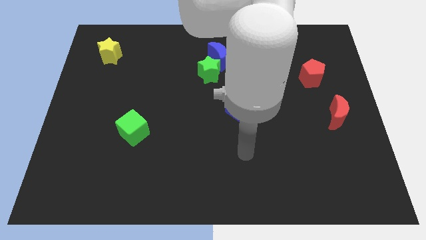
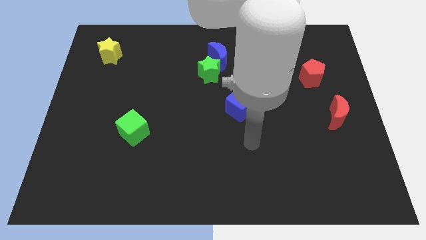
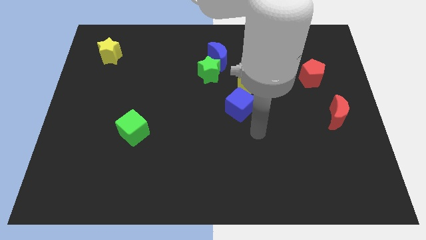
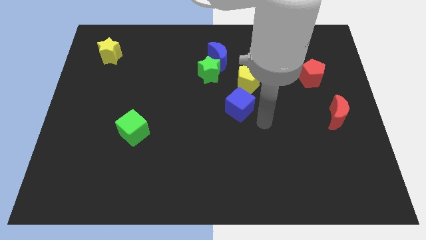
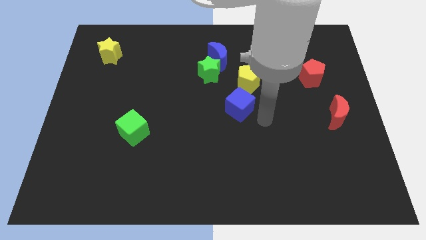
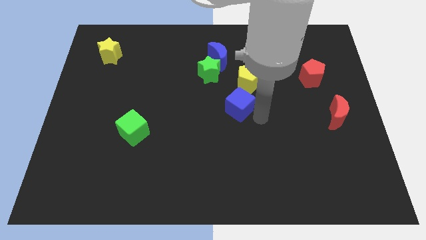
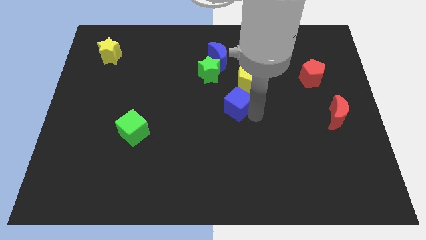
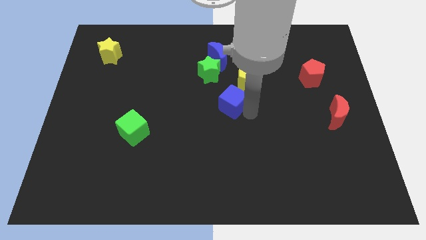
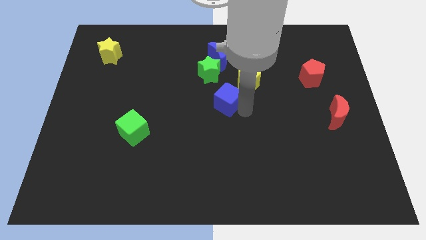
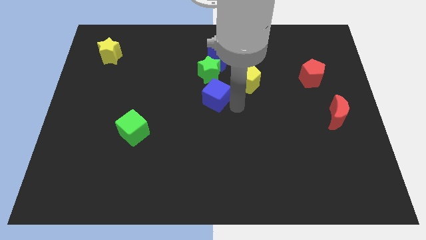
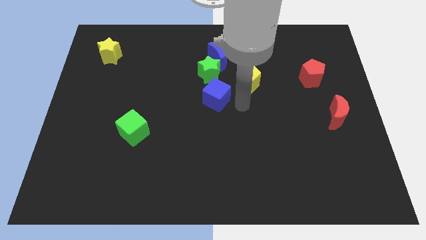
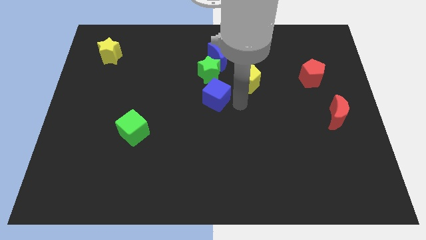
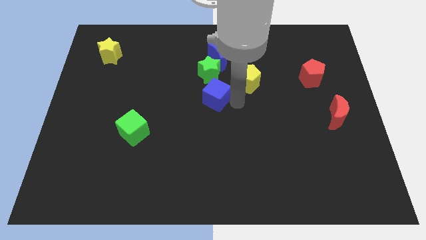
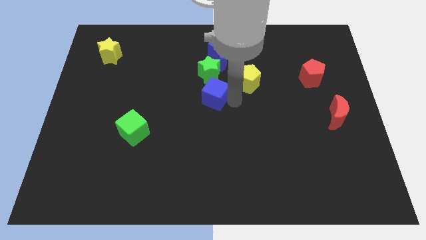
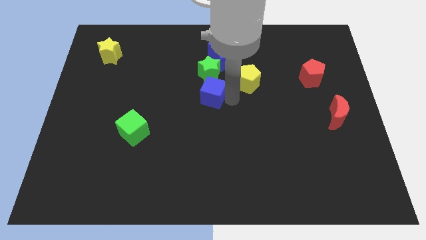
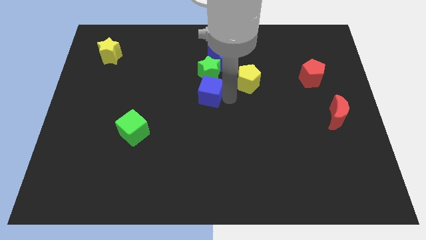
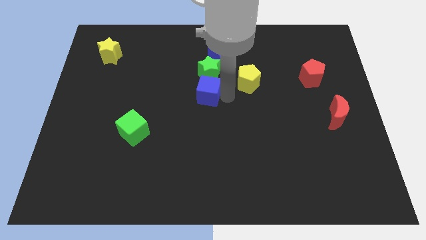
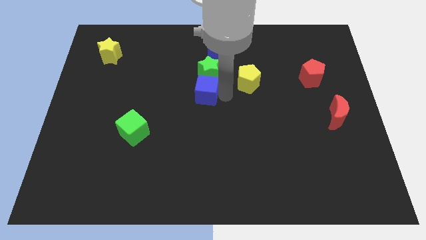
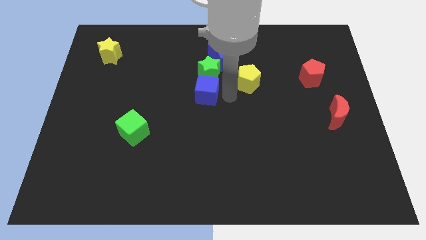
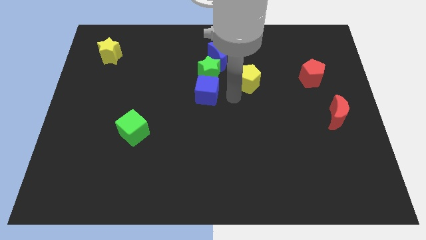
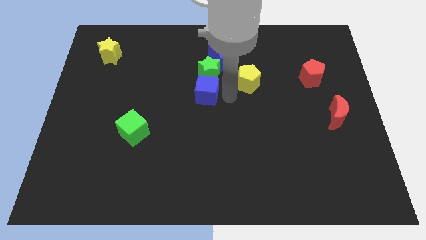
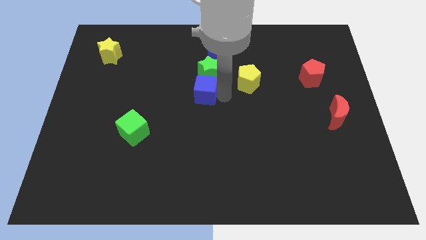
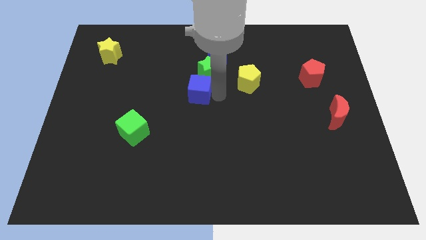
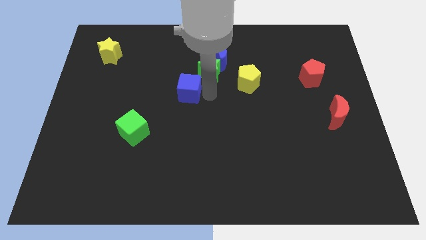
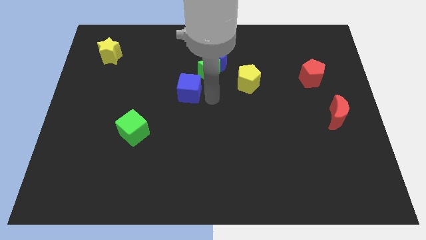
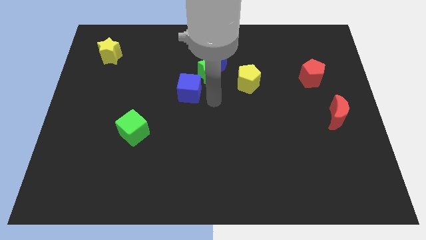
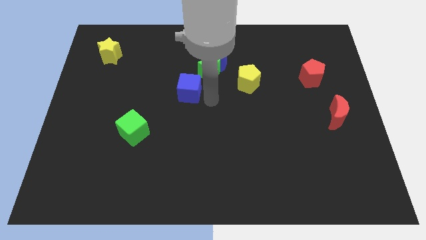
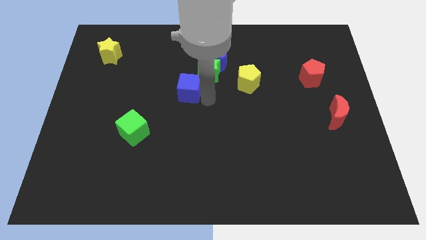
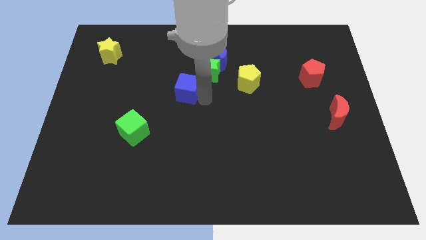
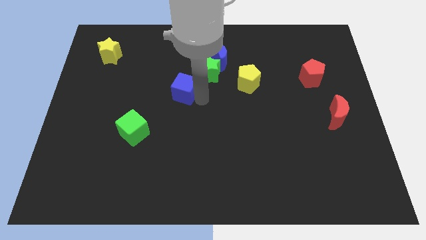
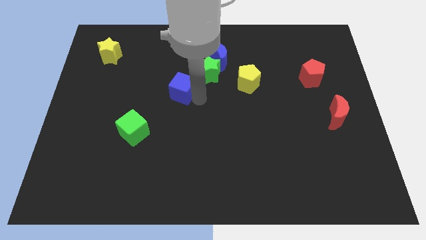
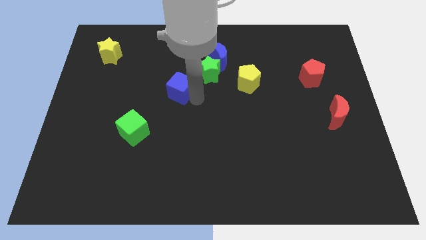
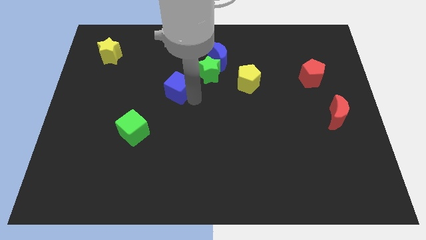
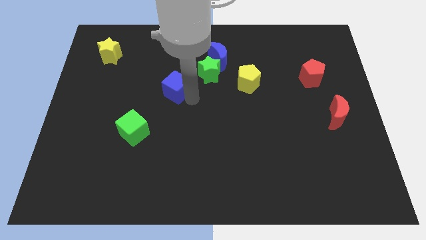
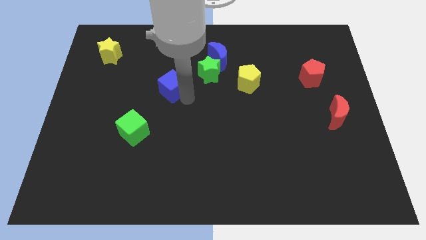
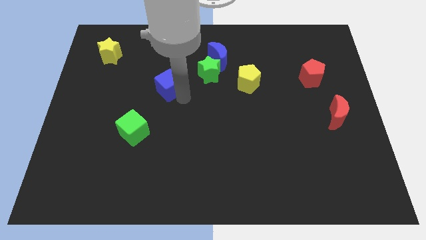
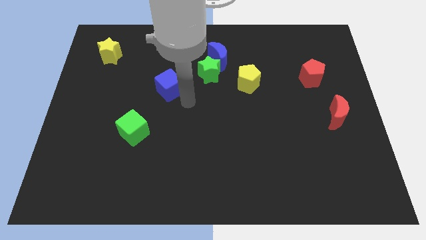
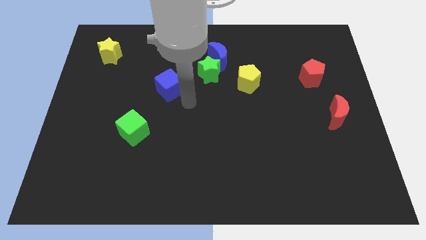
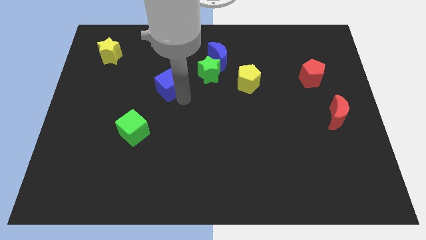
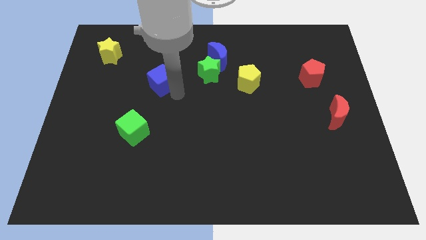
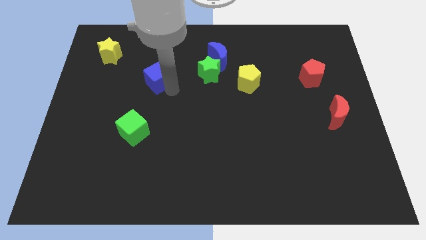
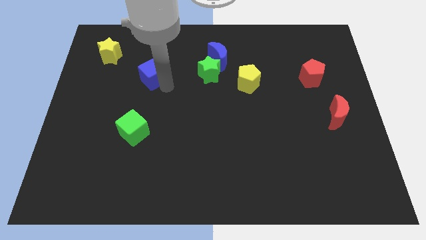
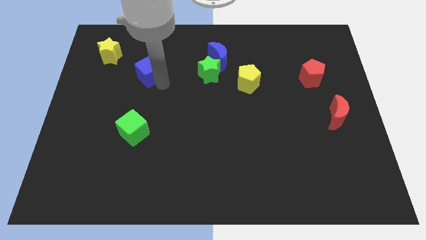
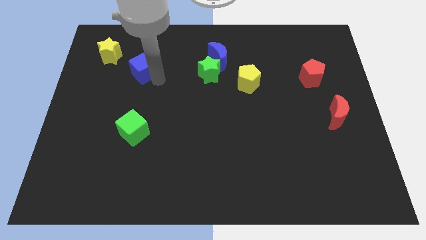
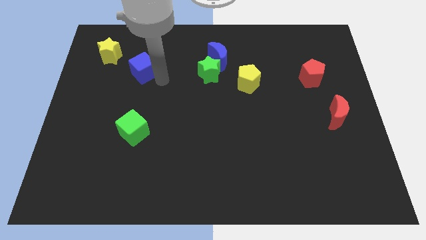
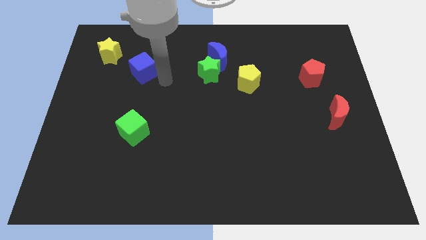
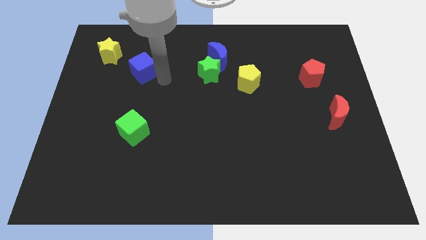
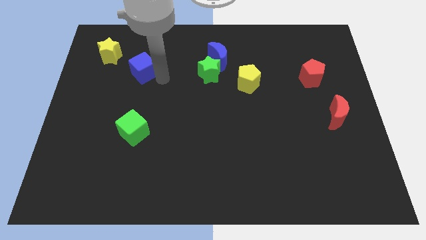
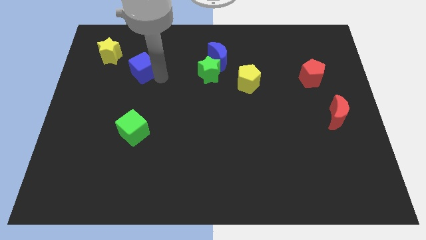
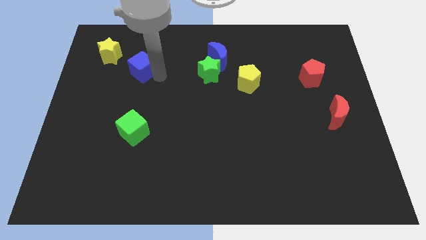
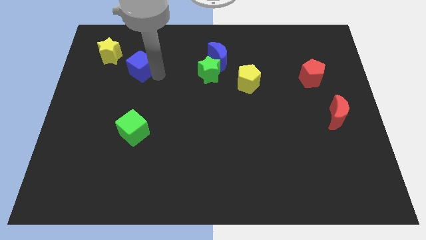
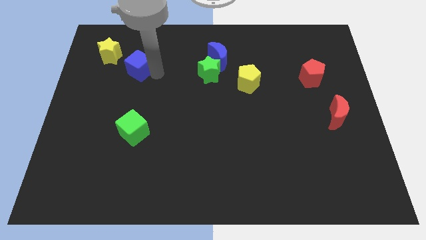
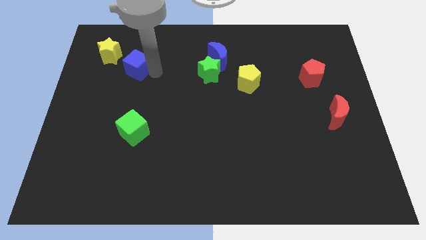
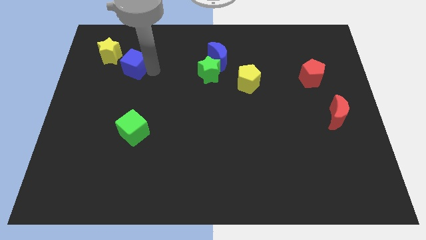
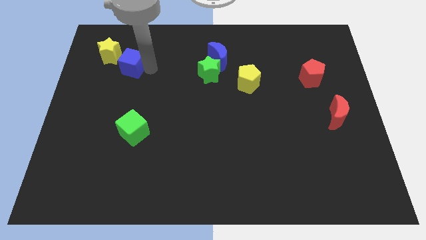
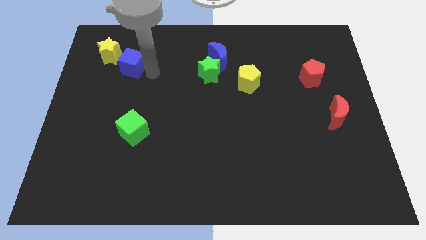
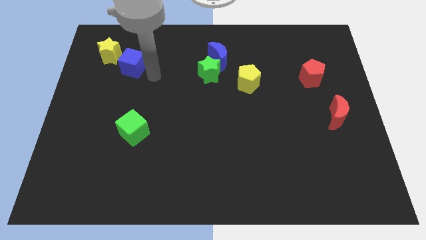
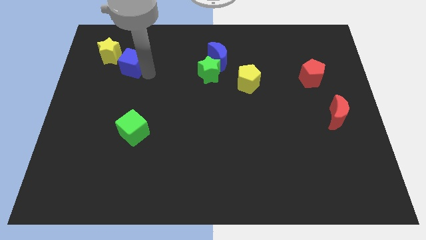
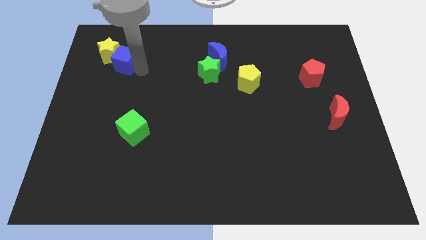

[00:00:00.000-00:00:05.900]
slide the blue cube towards the yellow star

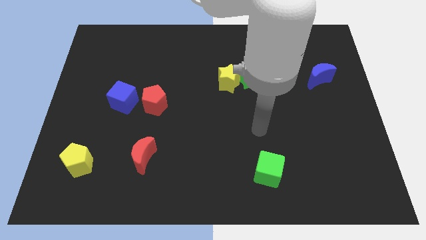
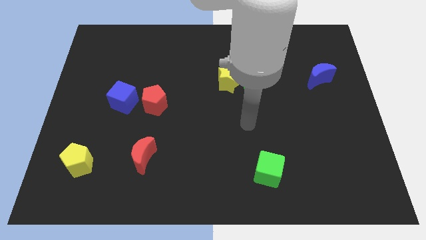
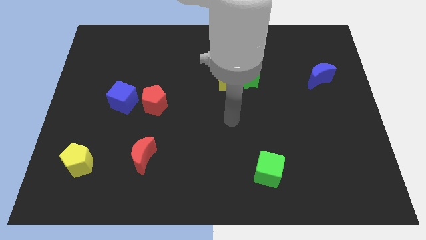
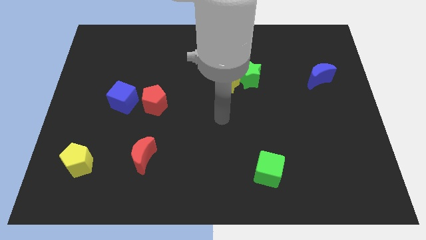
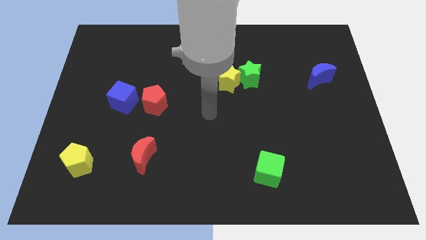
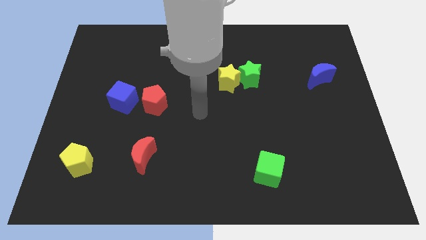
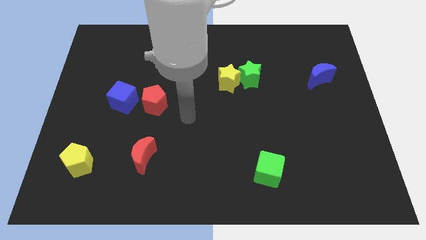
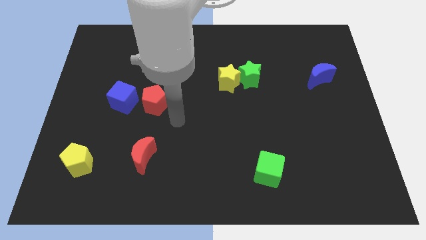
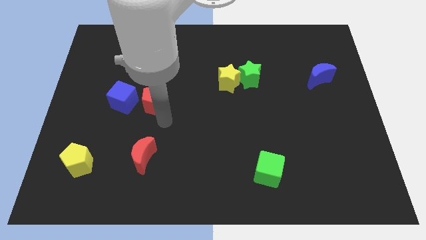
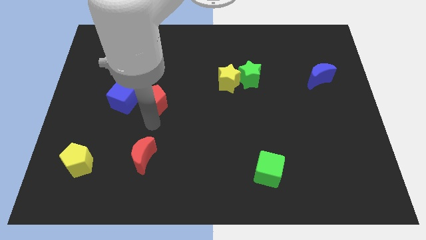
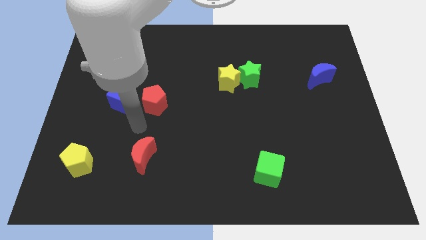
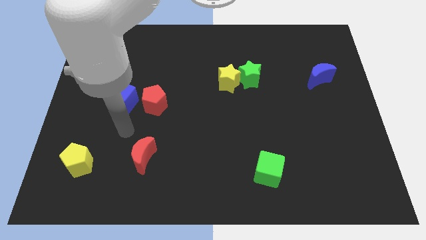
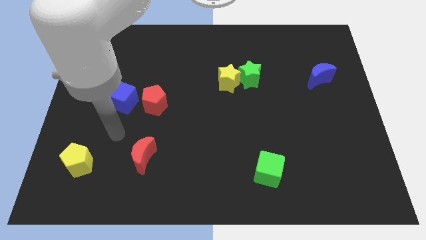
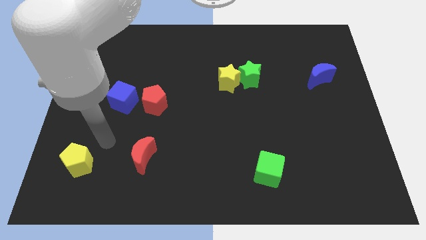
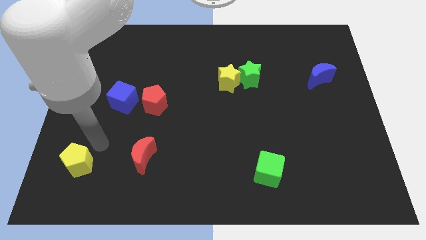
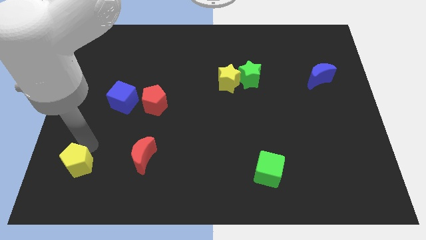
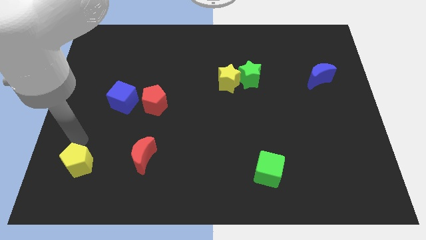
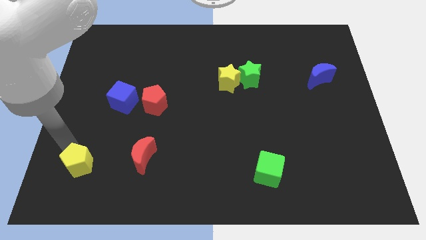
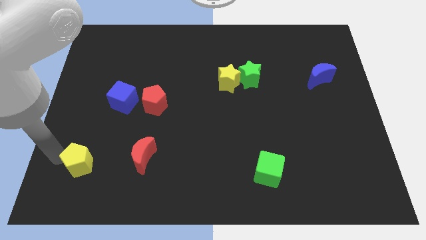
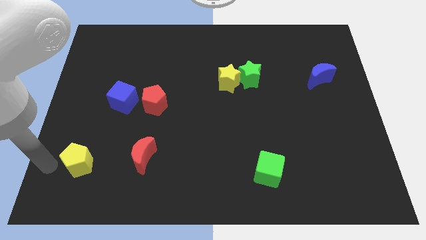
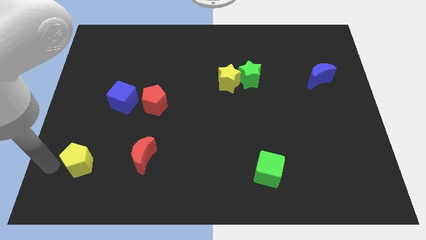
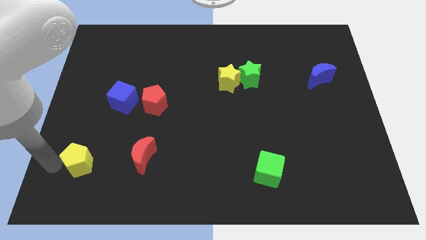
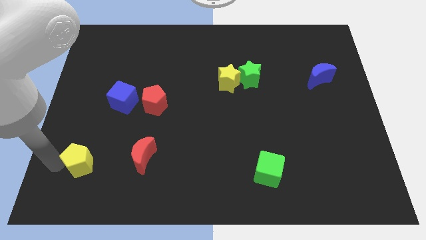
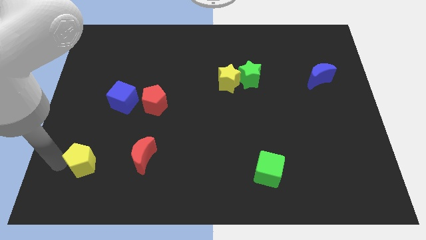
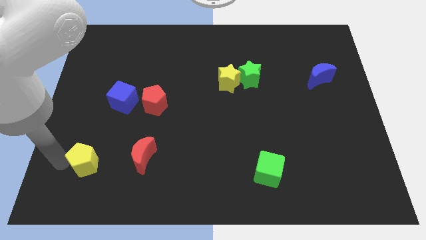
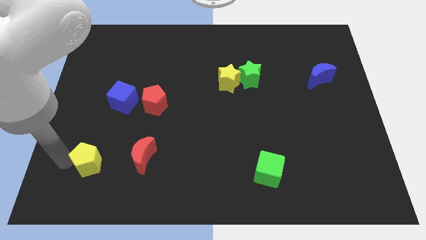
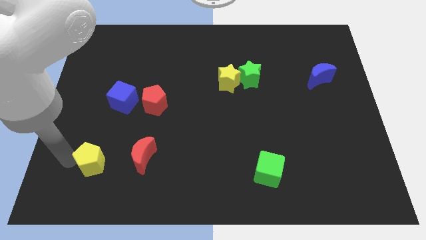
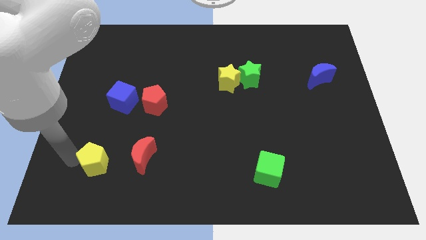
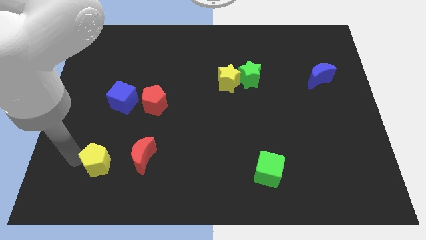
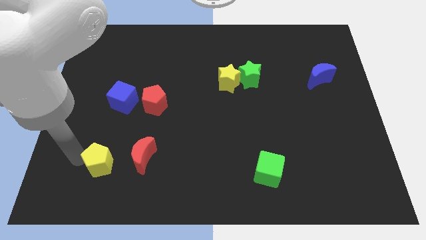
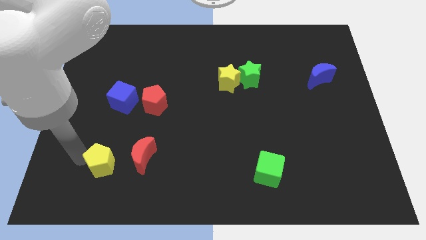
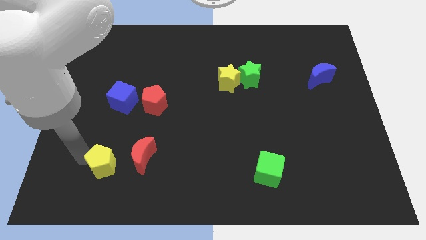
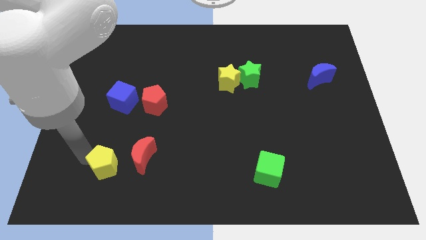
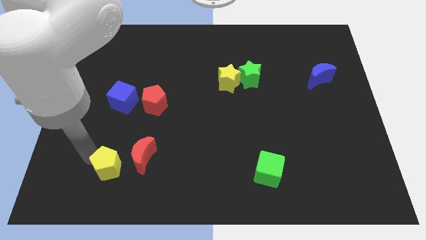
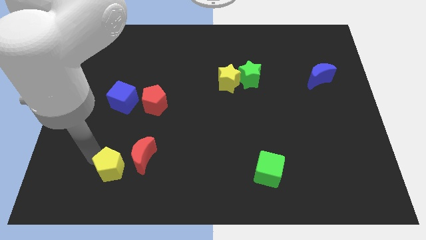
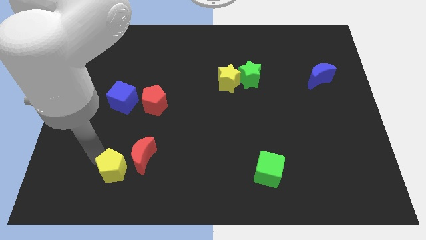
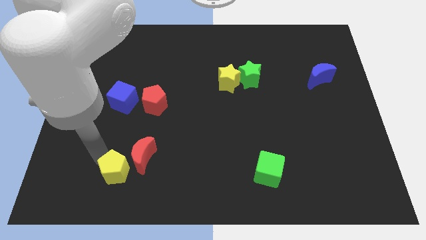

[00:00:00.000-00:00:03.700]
put the yellow pentagon towards the red moon
